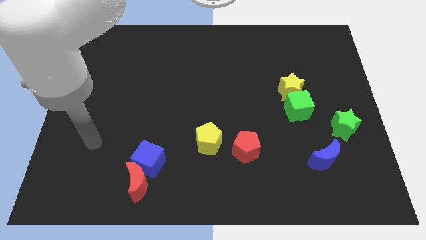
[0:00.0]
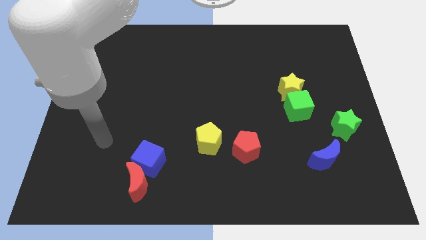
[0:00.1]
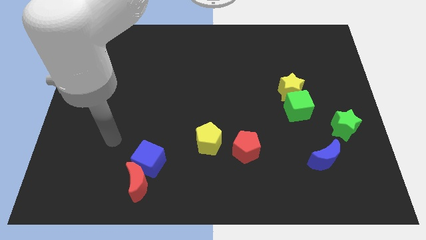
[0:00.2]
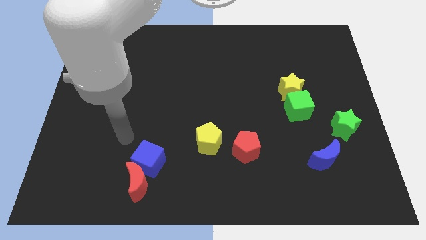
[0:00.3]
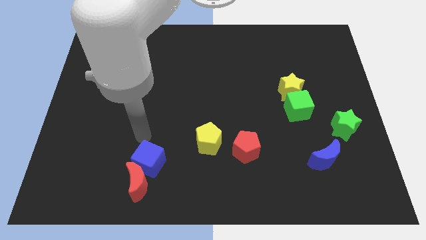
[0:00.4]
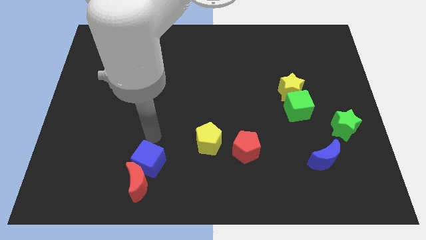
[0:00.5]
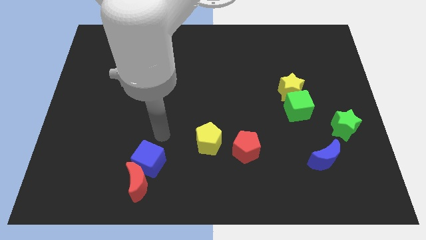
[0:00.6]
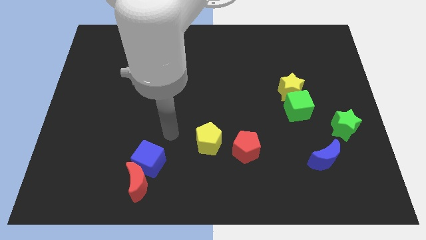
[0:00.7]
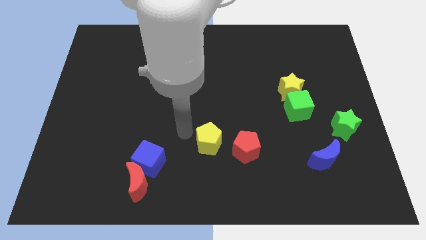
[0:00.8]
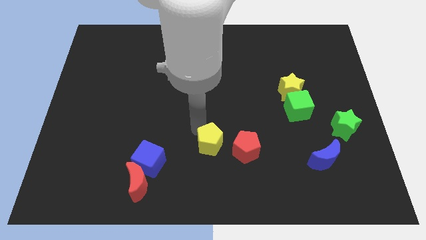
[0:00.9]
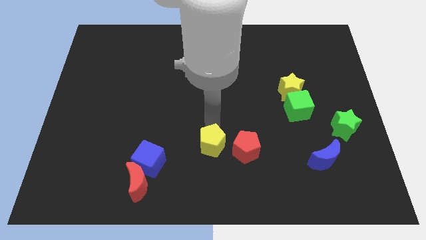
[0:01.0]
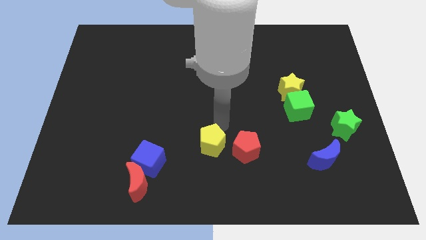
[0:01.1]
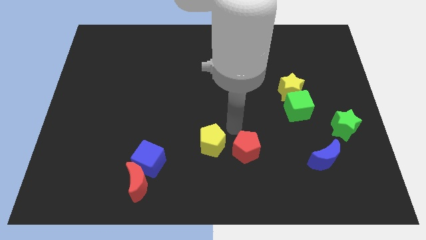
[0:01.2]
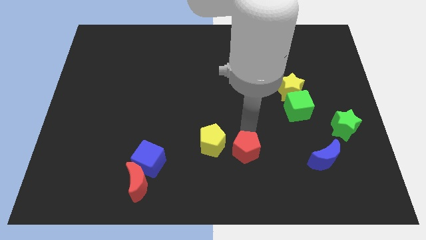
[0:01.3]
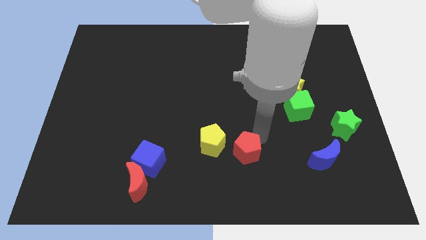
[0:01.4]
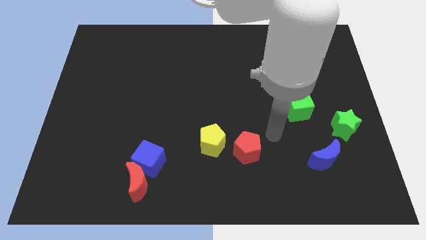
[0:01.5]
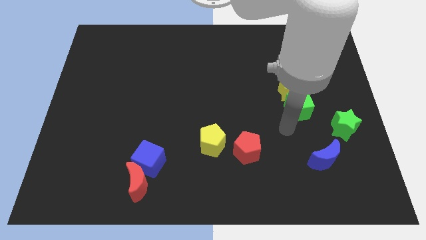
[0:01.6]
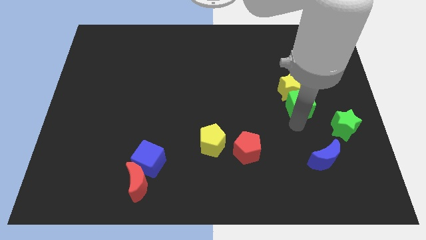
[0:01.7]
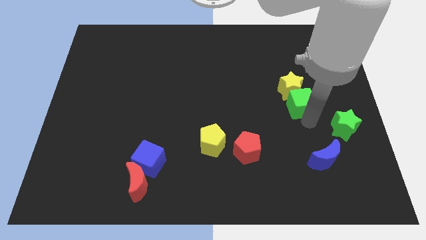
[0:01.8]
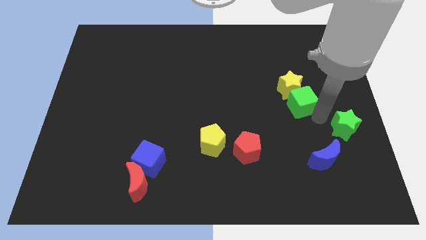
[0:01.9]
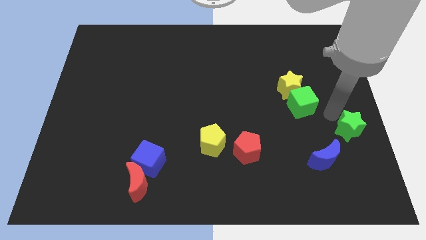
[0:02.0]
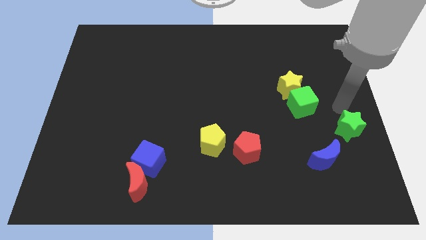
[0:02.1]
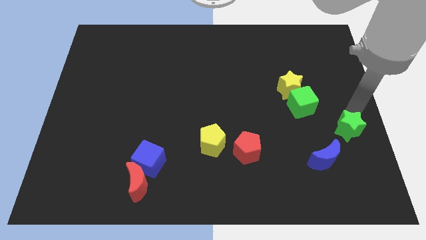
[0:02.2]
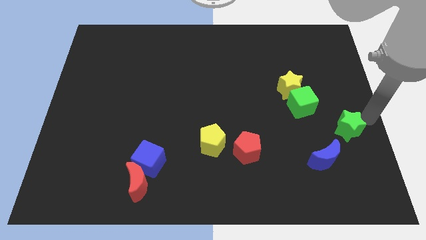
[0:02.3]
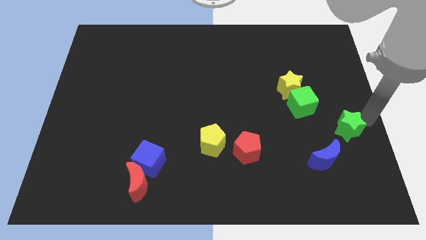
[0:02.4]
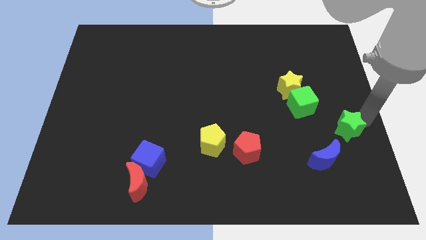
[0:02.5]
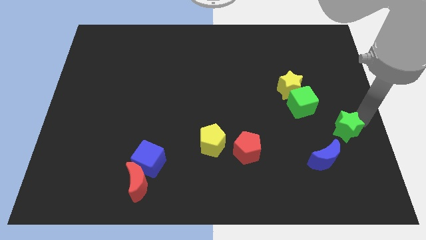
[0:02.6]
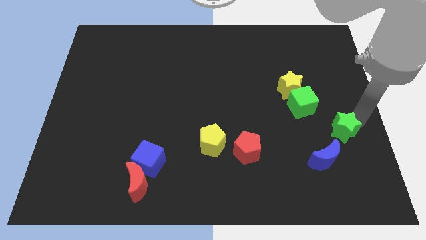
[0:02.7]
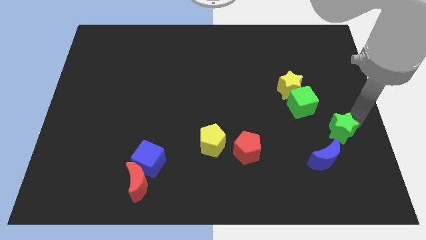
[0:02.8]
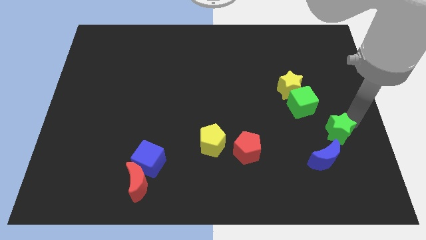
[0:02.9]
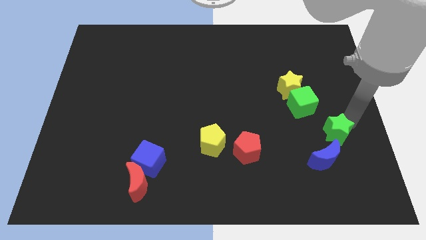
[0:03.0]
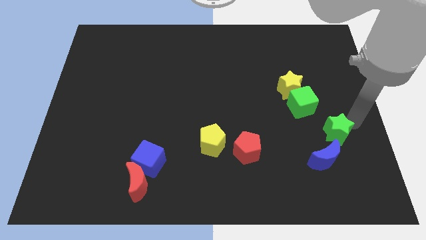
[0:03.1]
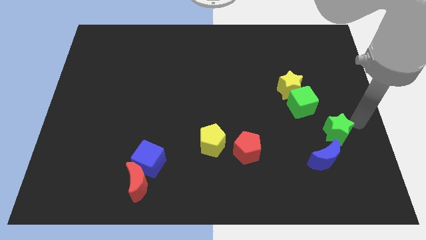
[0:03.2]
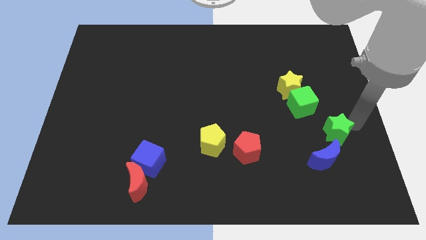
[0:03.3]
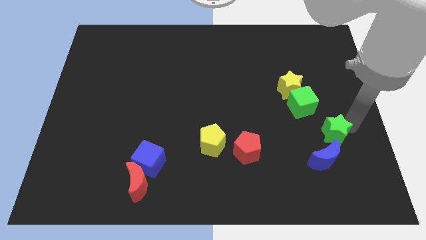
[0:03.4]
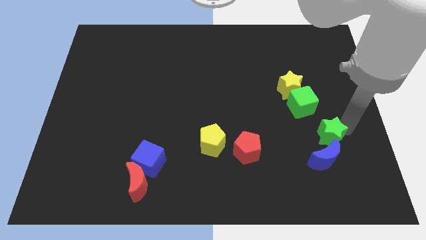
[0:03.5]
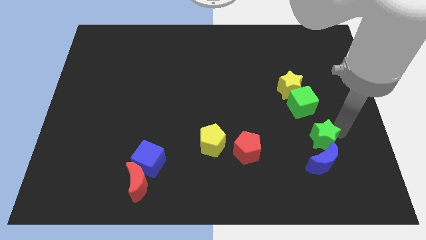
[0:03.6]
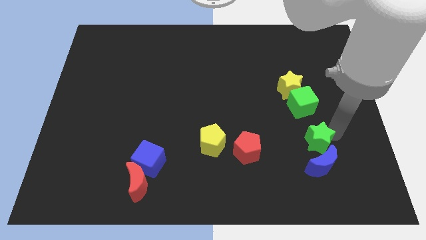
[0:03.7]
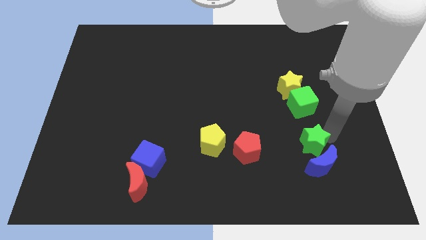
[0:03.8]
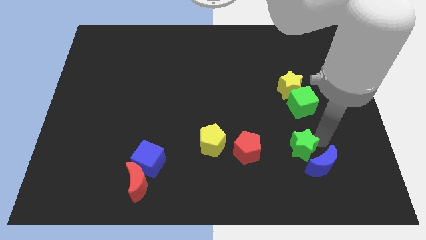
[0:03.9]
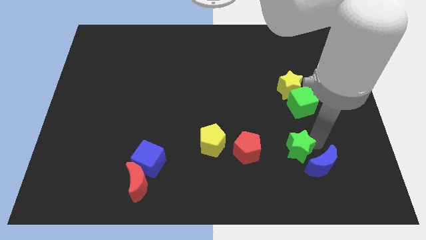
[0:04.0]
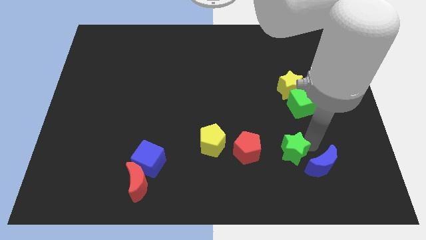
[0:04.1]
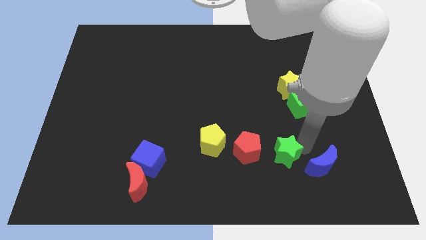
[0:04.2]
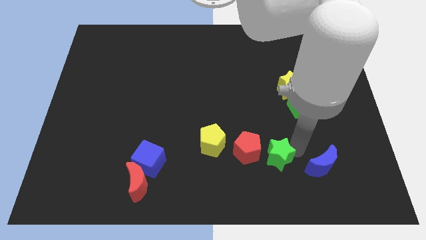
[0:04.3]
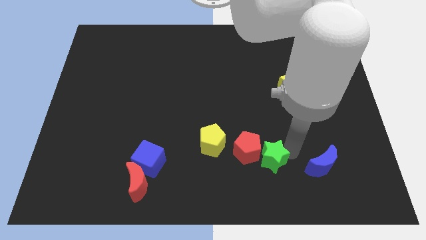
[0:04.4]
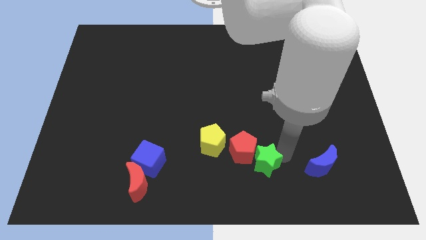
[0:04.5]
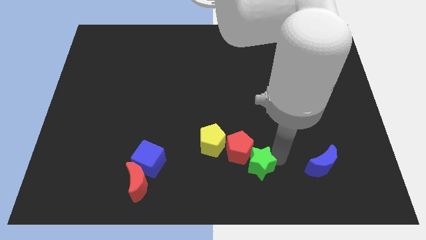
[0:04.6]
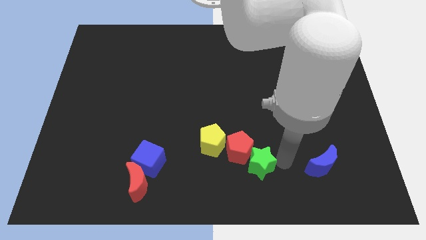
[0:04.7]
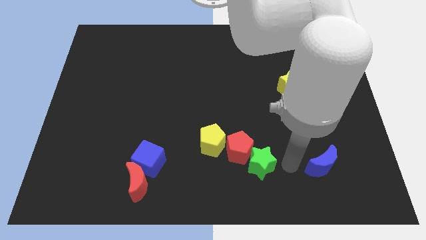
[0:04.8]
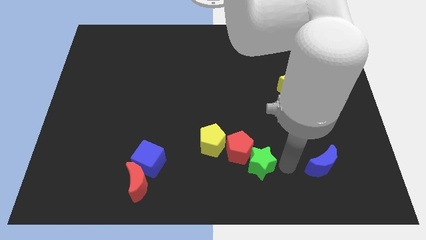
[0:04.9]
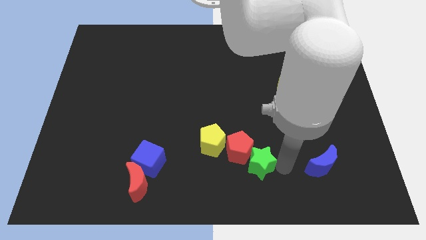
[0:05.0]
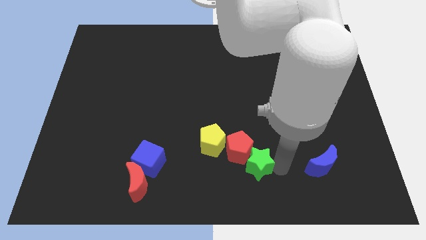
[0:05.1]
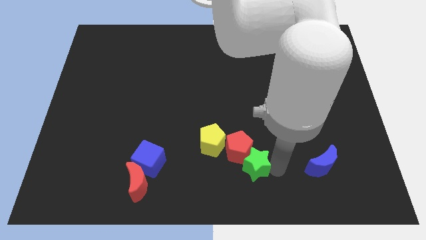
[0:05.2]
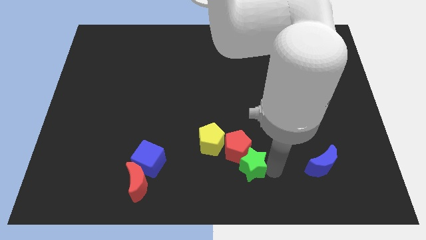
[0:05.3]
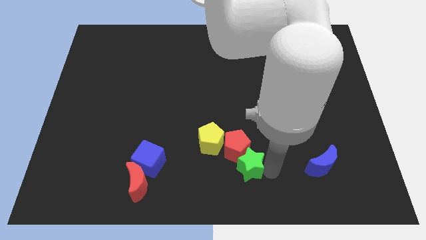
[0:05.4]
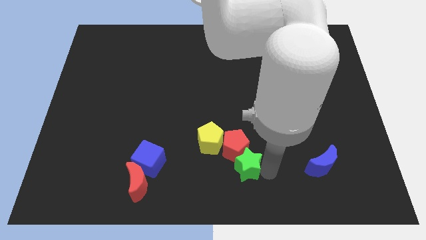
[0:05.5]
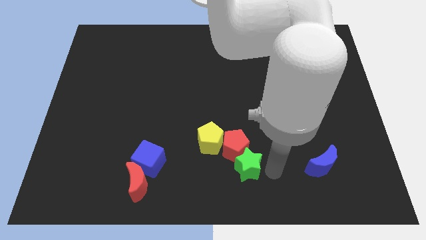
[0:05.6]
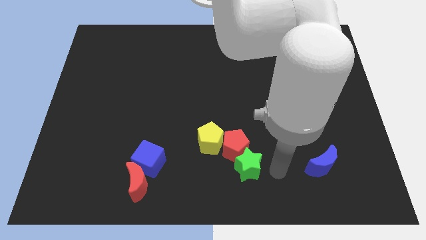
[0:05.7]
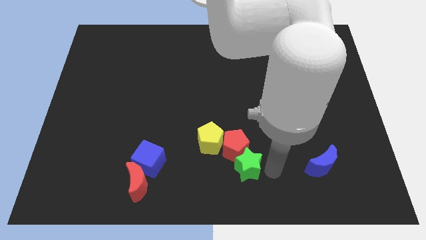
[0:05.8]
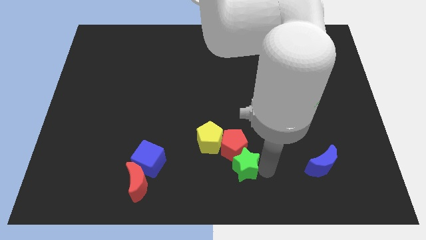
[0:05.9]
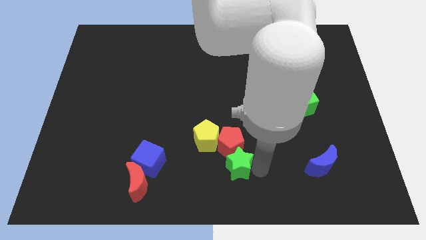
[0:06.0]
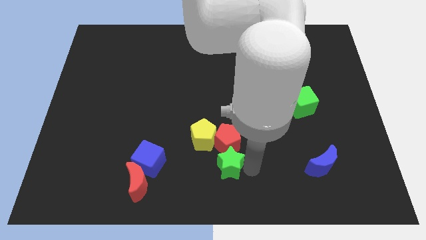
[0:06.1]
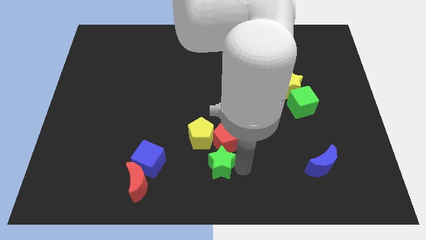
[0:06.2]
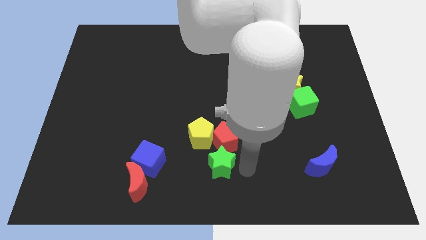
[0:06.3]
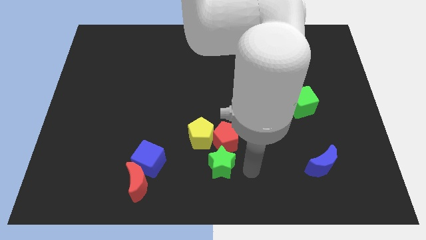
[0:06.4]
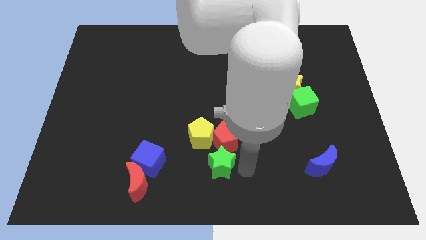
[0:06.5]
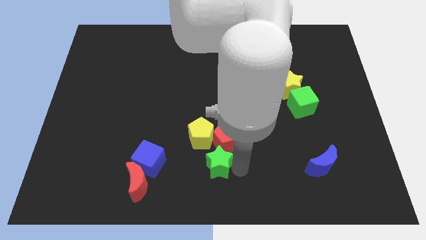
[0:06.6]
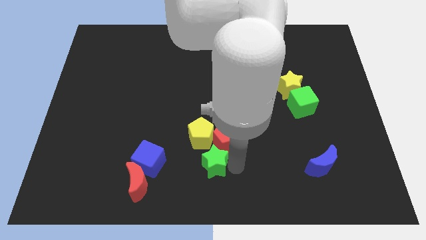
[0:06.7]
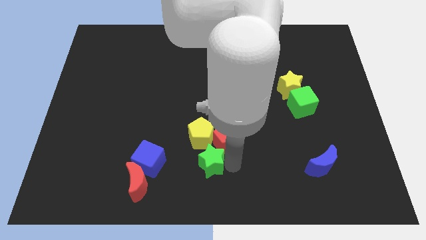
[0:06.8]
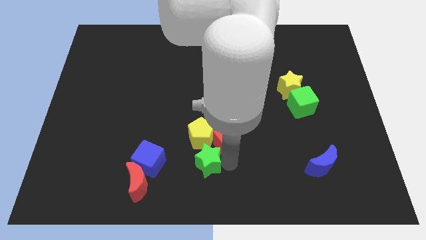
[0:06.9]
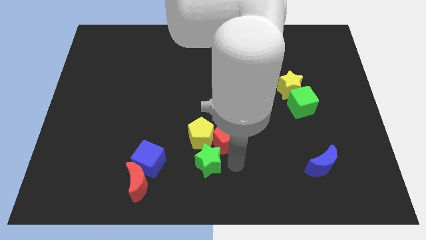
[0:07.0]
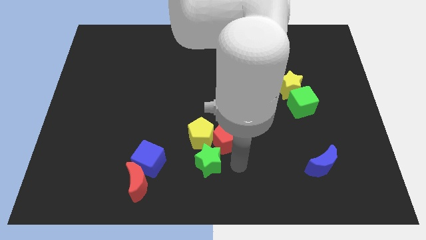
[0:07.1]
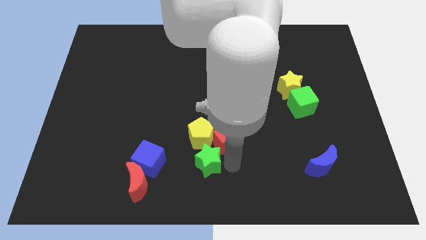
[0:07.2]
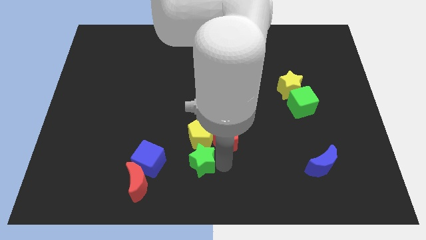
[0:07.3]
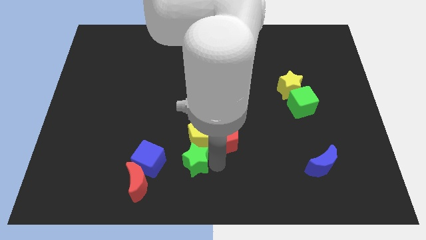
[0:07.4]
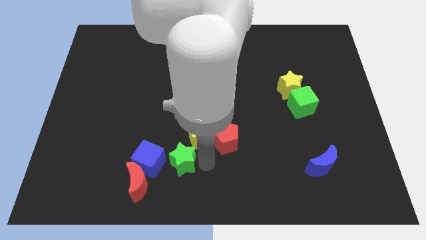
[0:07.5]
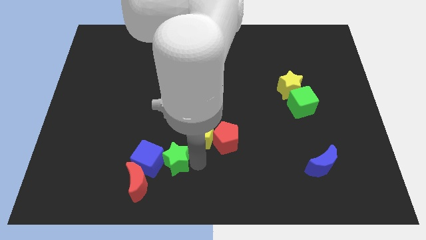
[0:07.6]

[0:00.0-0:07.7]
push the green star to the blue cube
